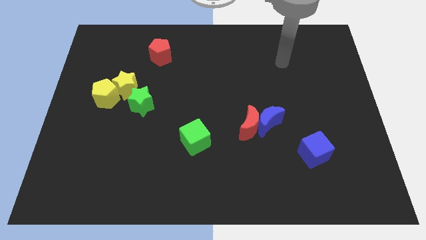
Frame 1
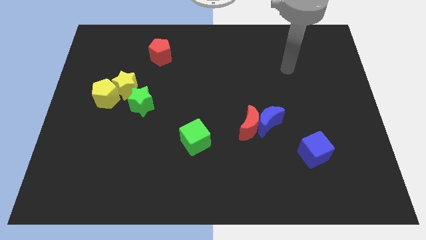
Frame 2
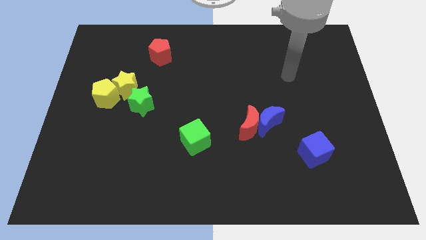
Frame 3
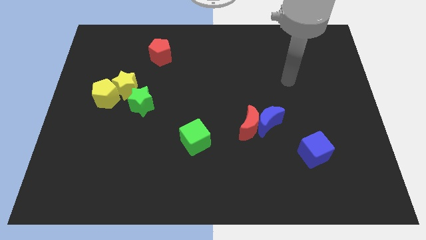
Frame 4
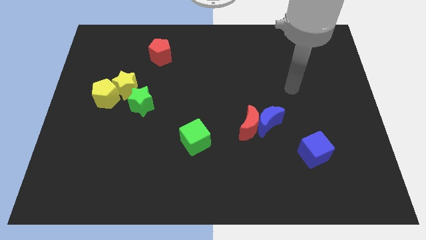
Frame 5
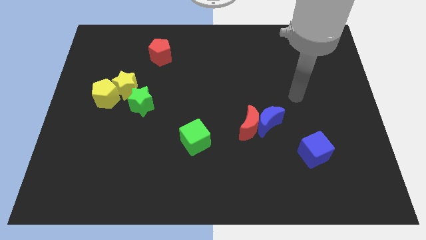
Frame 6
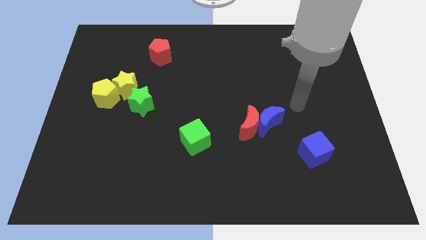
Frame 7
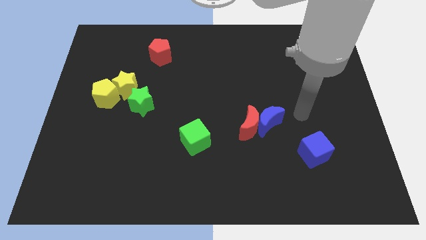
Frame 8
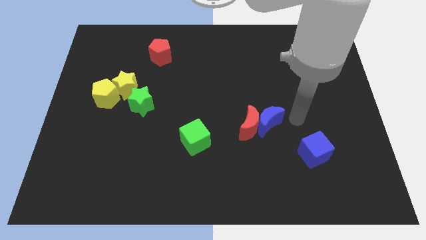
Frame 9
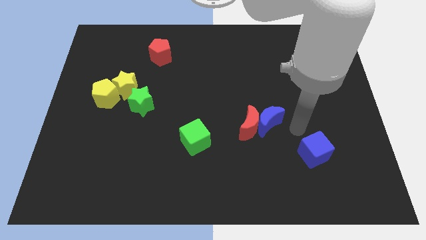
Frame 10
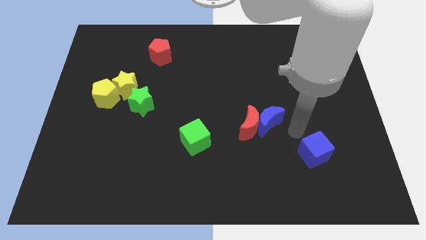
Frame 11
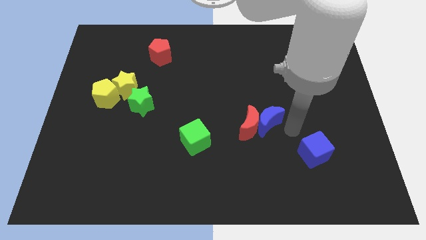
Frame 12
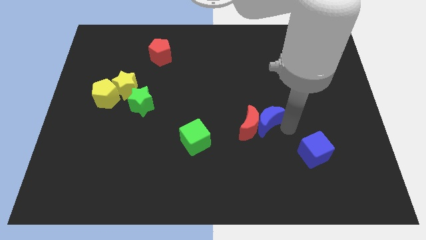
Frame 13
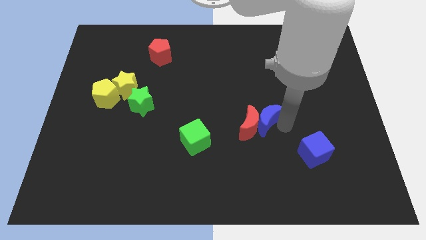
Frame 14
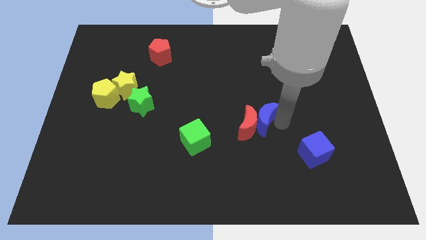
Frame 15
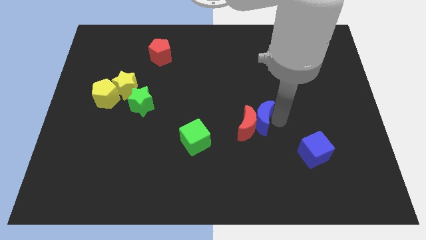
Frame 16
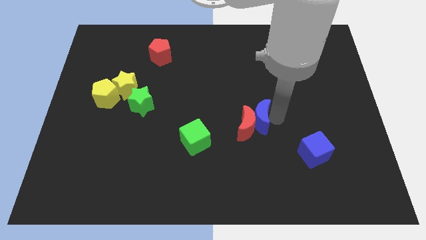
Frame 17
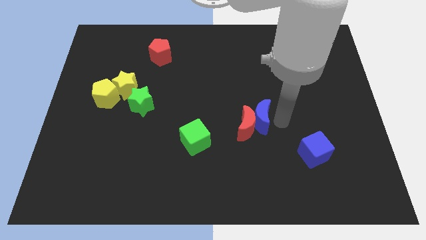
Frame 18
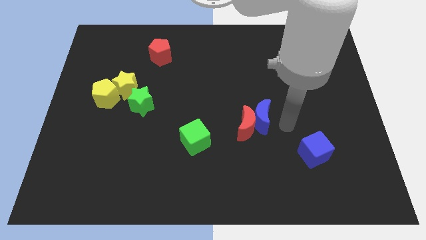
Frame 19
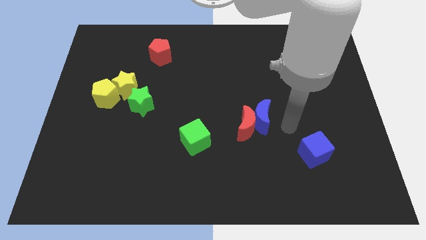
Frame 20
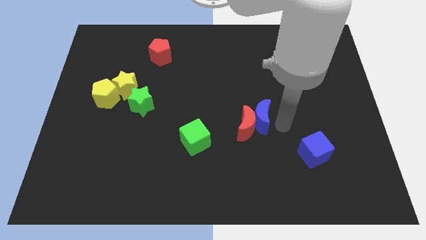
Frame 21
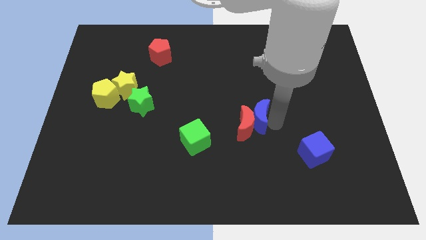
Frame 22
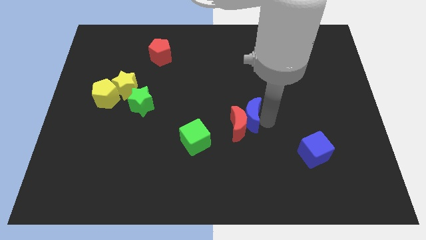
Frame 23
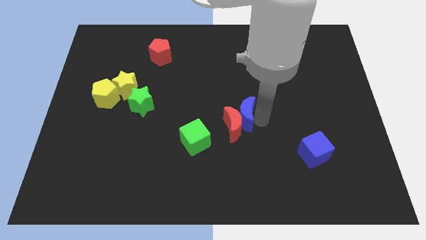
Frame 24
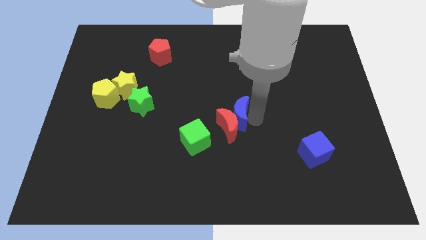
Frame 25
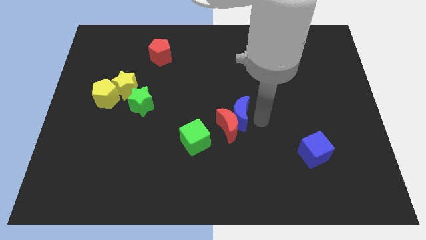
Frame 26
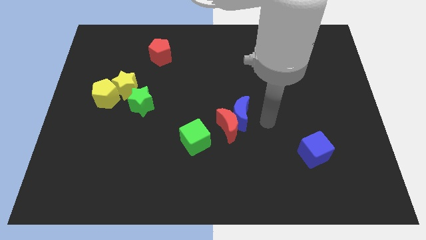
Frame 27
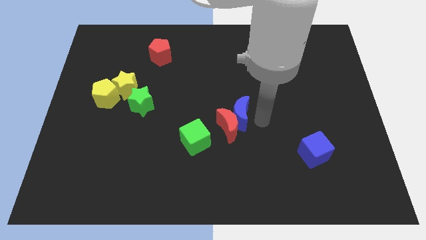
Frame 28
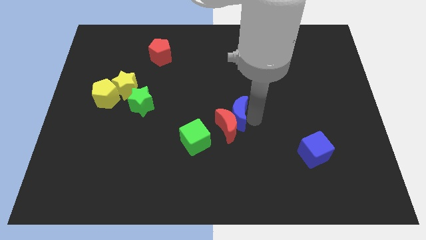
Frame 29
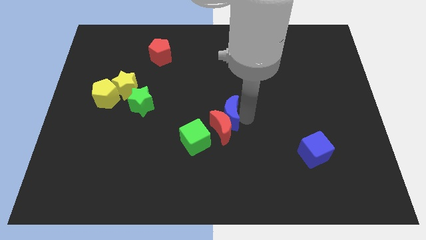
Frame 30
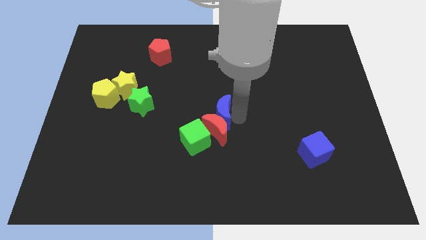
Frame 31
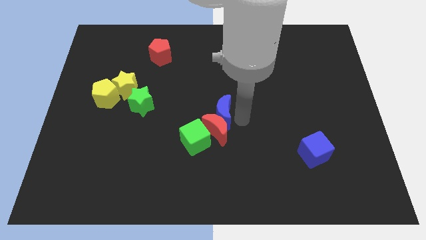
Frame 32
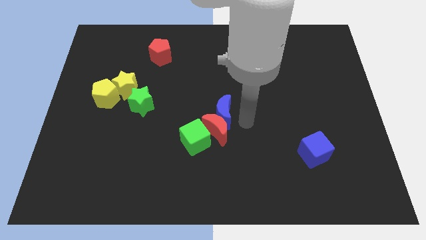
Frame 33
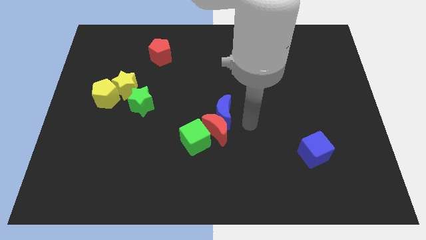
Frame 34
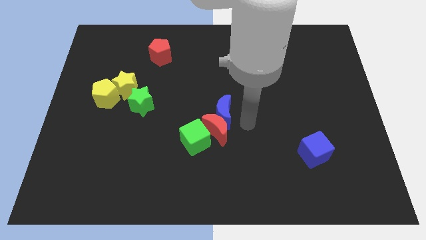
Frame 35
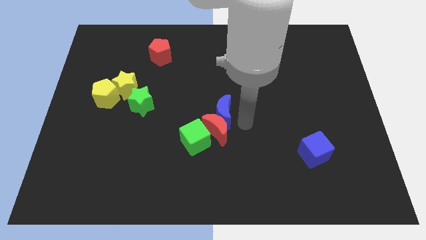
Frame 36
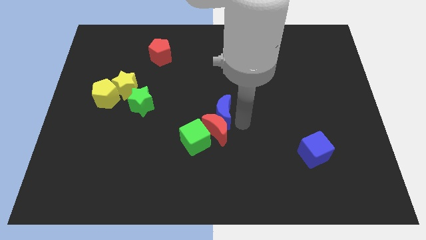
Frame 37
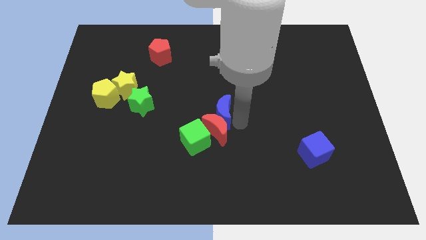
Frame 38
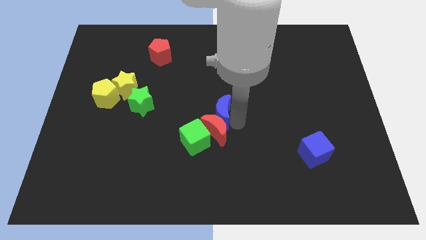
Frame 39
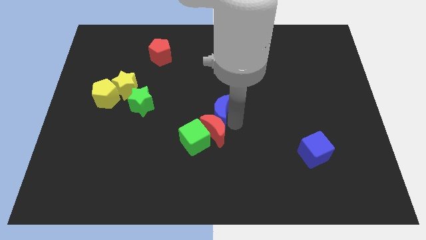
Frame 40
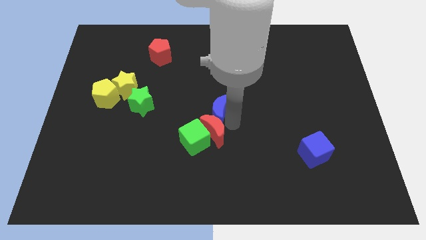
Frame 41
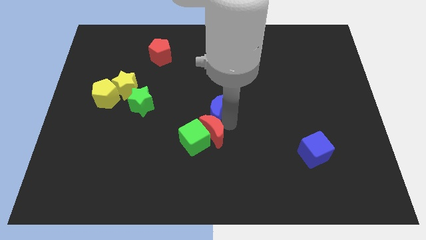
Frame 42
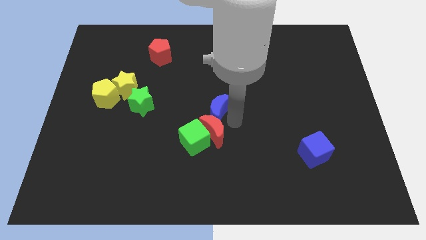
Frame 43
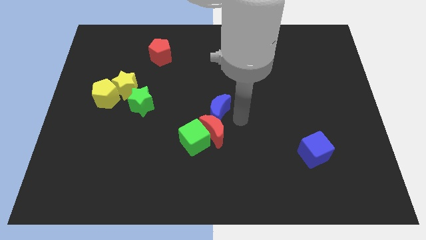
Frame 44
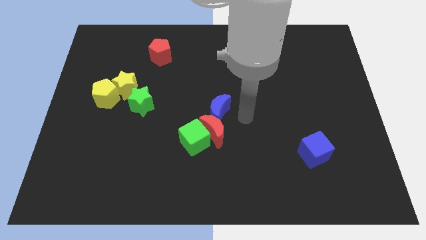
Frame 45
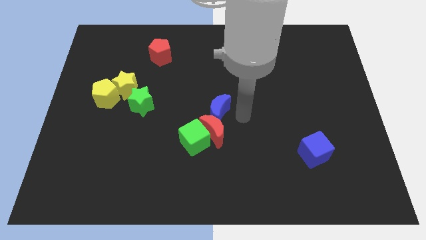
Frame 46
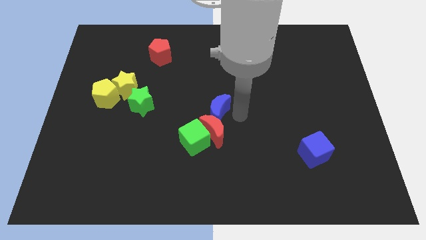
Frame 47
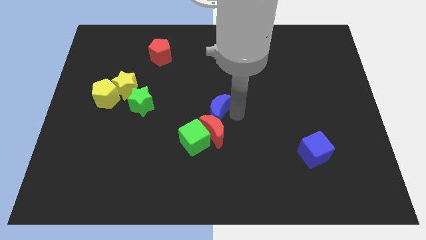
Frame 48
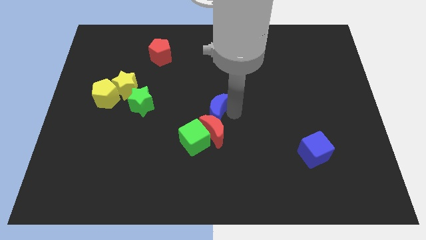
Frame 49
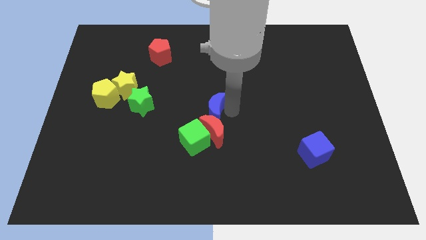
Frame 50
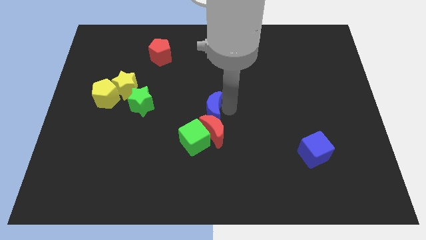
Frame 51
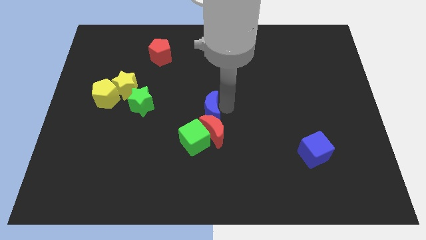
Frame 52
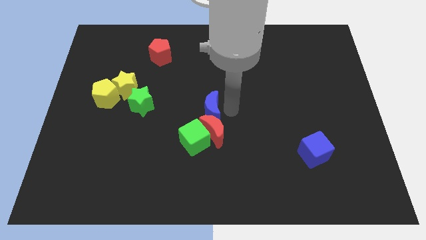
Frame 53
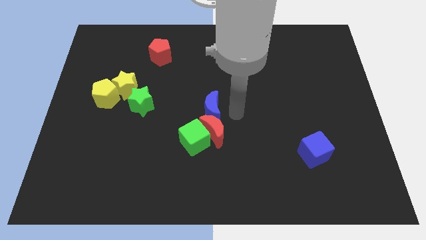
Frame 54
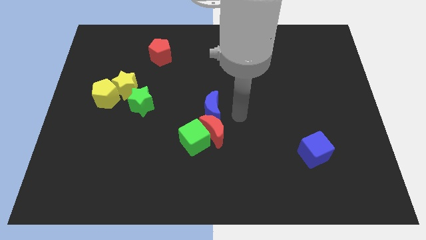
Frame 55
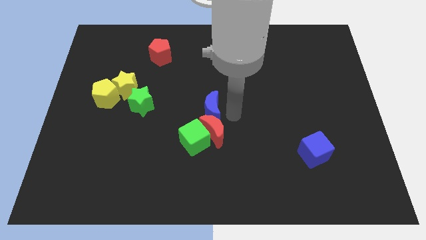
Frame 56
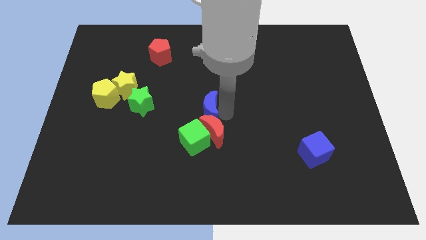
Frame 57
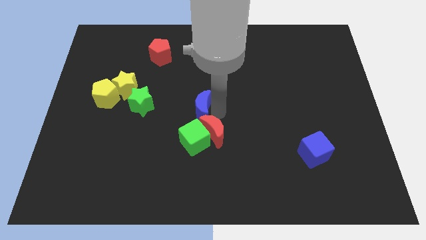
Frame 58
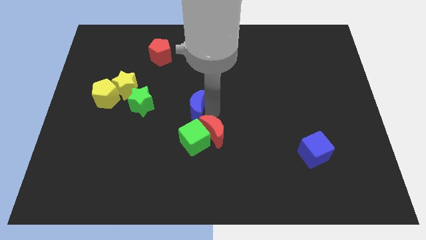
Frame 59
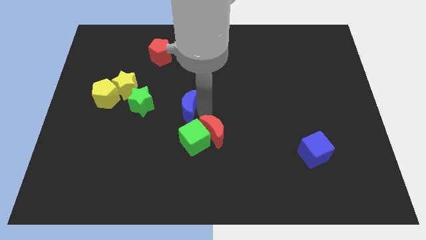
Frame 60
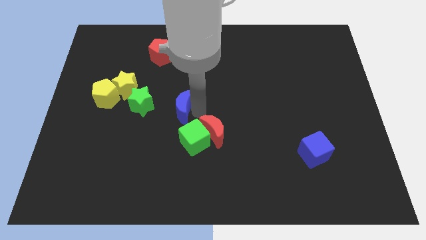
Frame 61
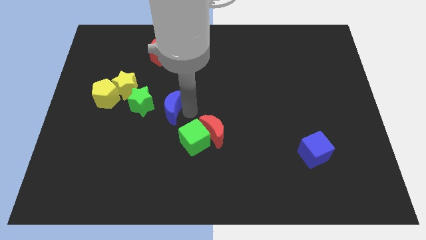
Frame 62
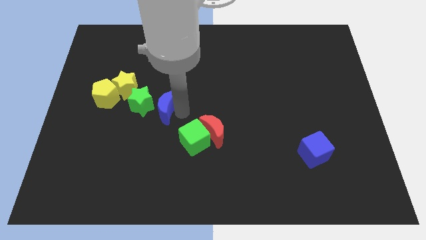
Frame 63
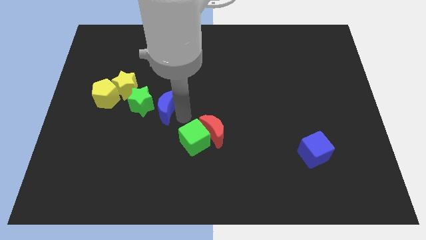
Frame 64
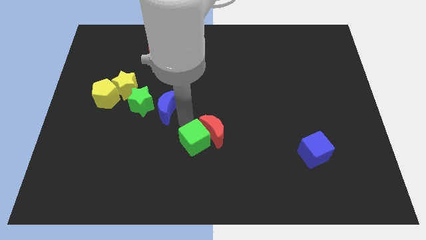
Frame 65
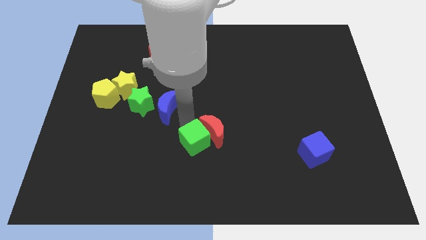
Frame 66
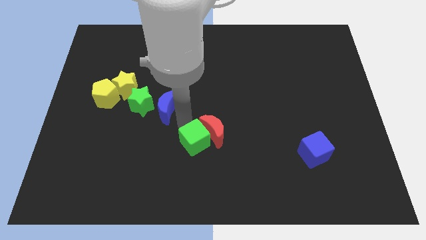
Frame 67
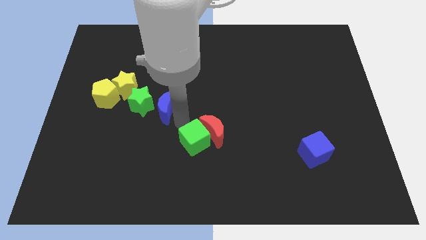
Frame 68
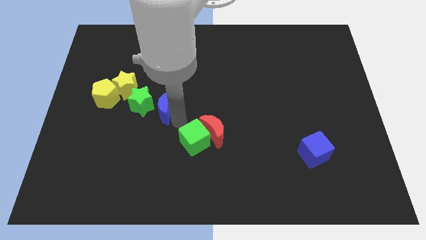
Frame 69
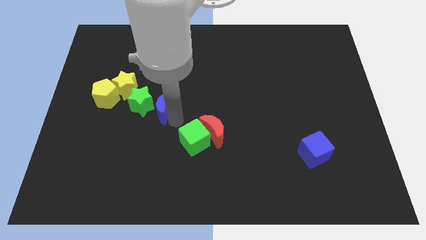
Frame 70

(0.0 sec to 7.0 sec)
put the blue moon to the right side of the yellow pentagon

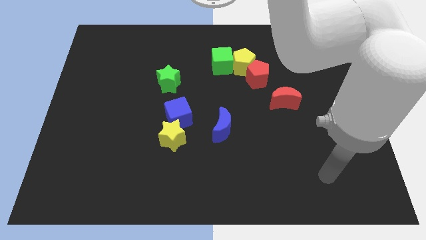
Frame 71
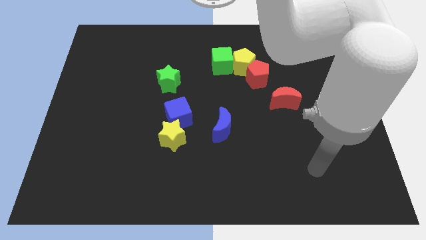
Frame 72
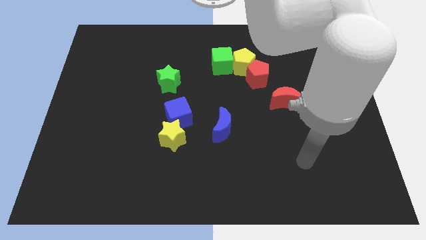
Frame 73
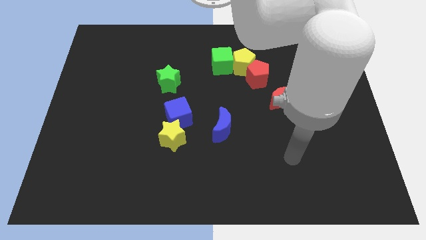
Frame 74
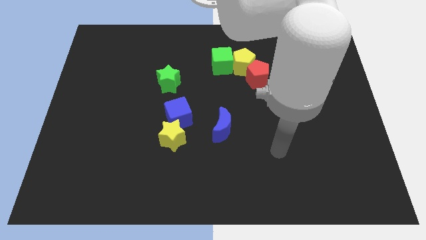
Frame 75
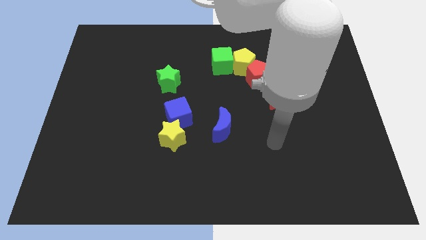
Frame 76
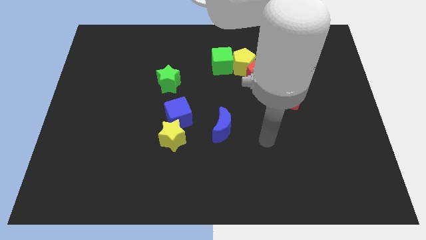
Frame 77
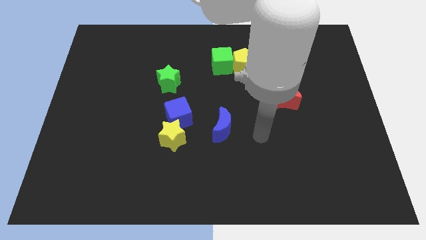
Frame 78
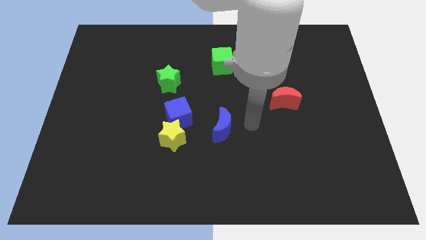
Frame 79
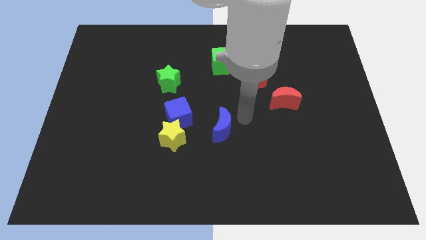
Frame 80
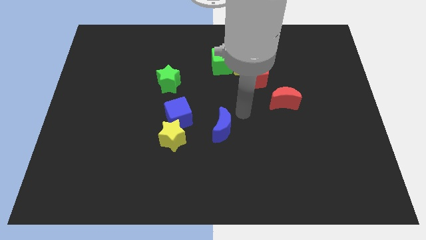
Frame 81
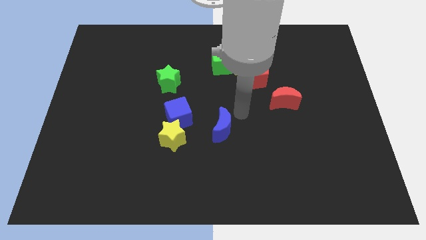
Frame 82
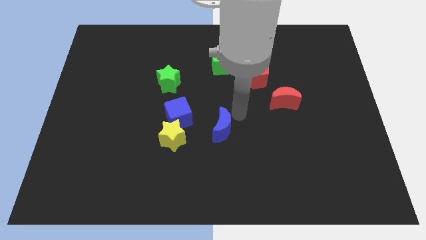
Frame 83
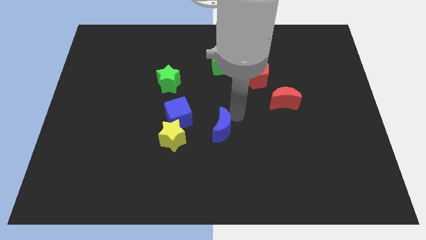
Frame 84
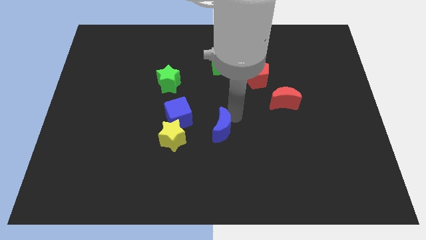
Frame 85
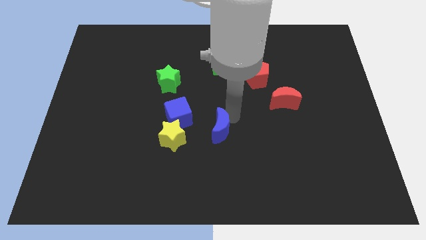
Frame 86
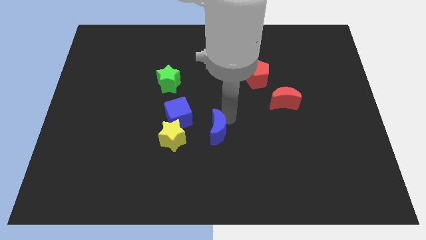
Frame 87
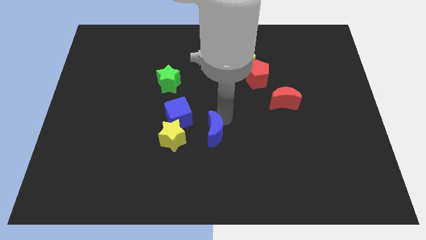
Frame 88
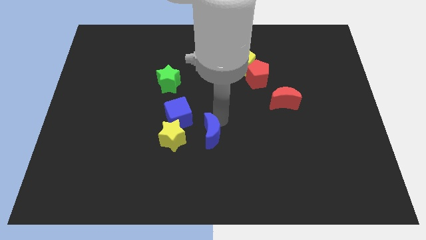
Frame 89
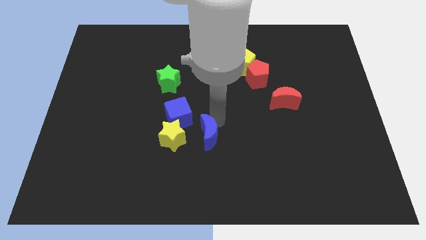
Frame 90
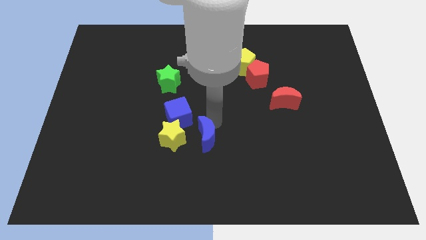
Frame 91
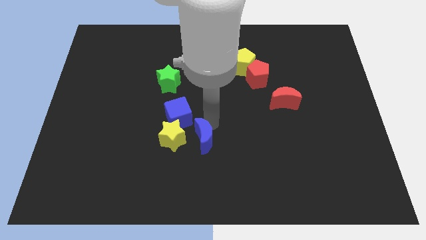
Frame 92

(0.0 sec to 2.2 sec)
move the blue moon to the bottom right of the yellow star
